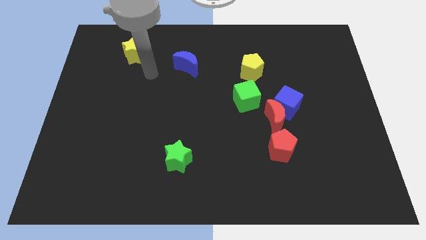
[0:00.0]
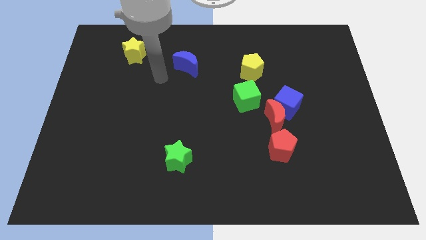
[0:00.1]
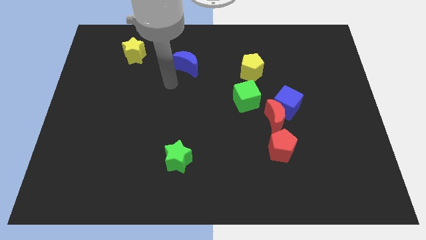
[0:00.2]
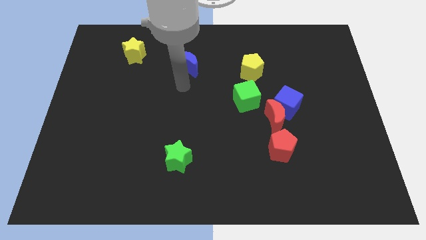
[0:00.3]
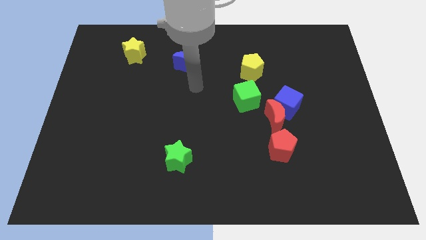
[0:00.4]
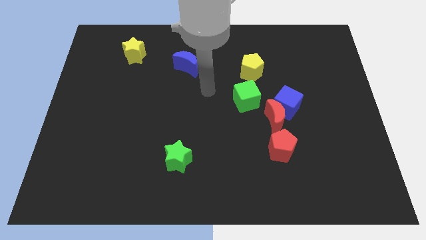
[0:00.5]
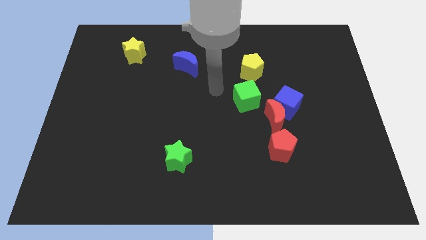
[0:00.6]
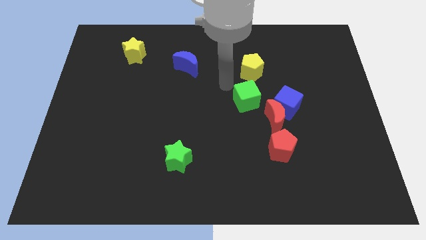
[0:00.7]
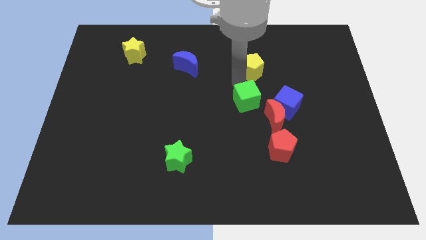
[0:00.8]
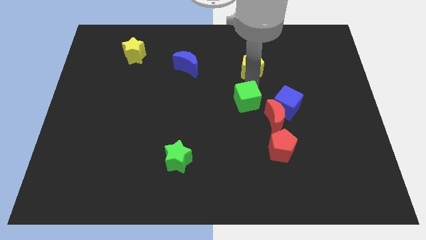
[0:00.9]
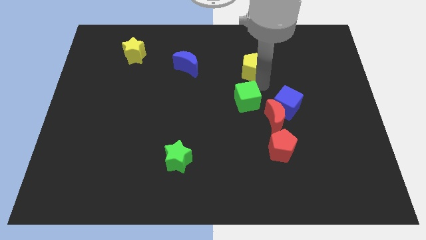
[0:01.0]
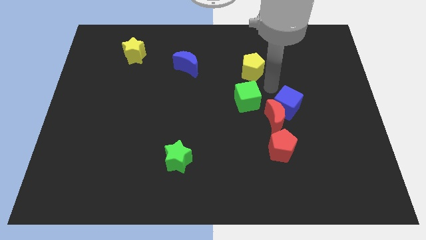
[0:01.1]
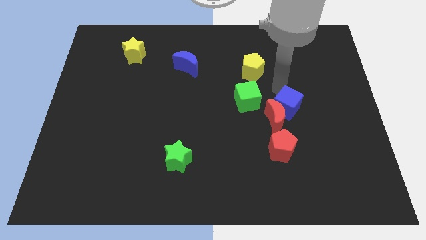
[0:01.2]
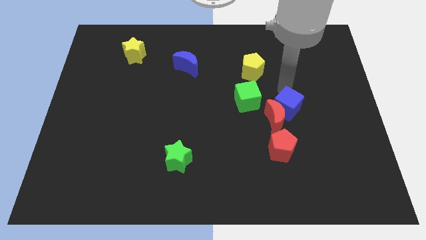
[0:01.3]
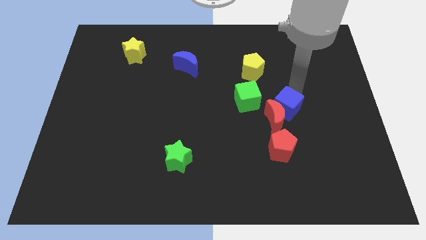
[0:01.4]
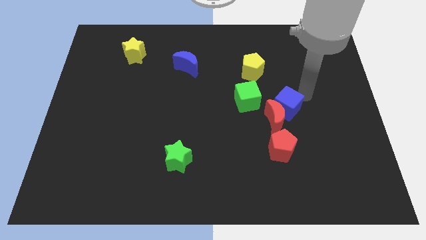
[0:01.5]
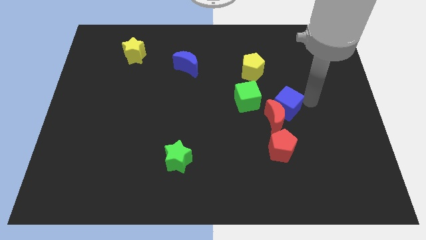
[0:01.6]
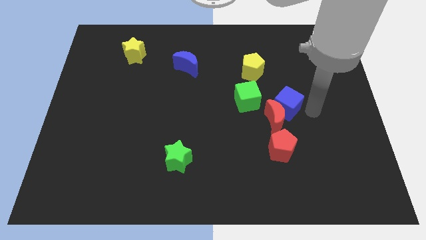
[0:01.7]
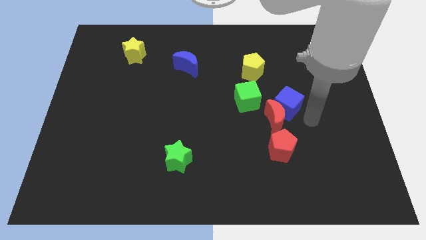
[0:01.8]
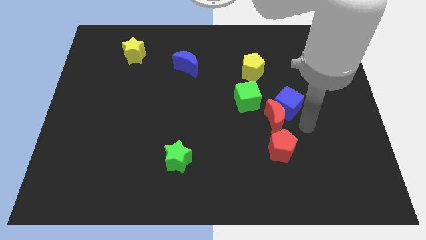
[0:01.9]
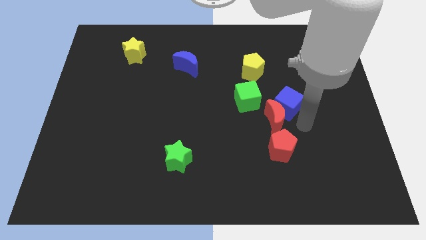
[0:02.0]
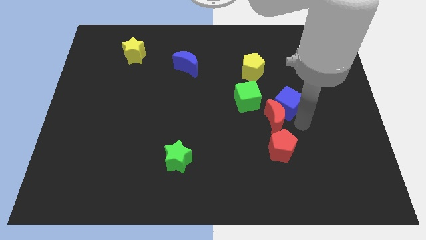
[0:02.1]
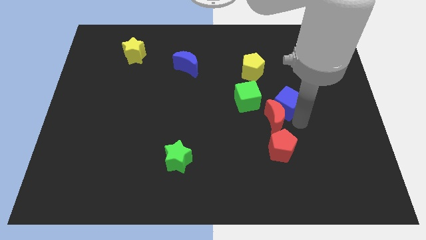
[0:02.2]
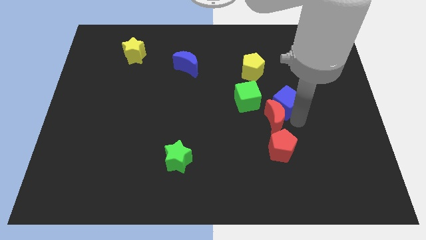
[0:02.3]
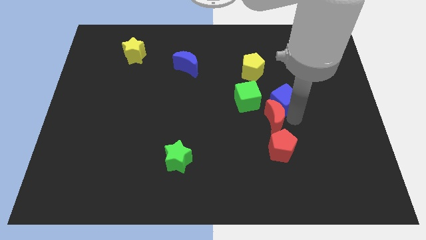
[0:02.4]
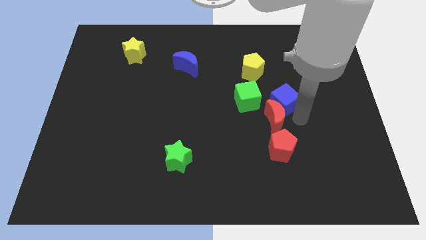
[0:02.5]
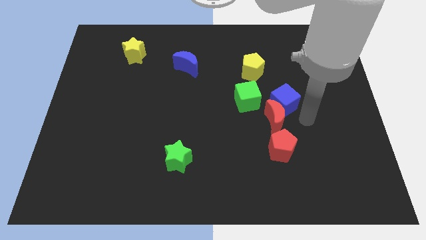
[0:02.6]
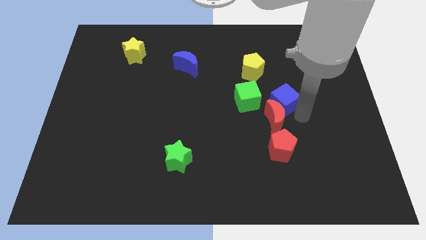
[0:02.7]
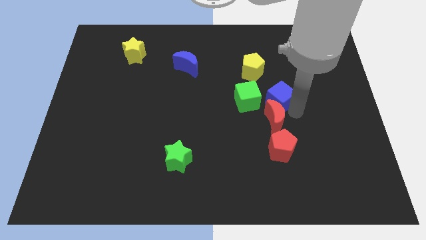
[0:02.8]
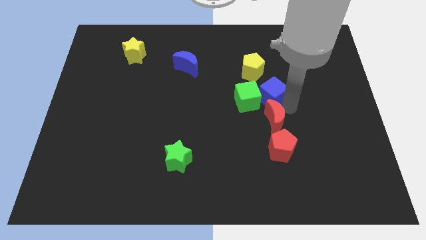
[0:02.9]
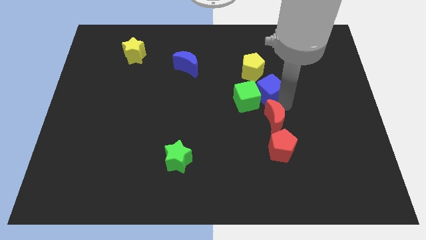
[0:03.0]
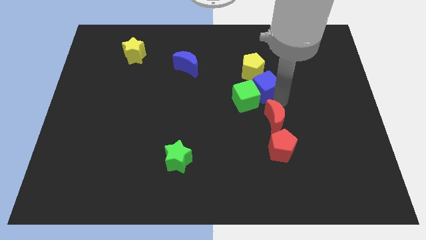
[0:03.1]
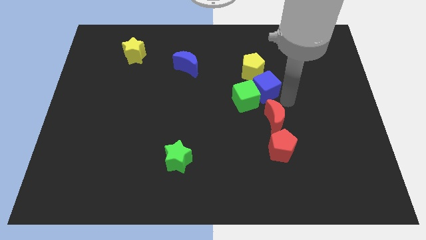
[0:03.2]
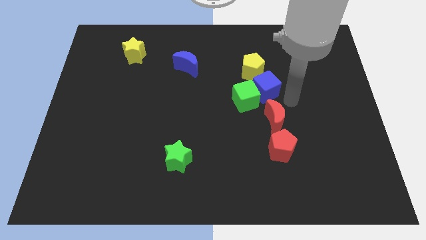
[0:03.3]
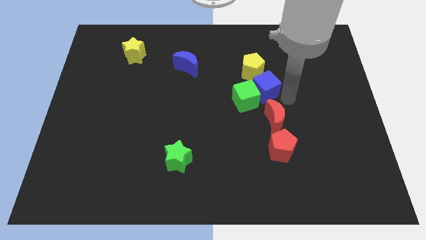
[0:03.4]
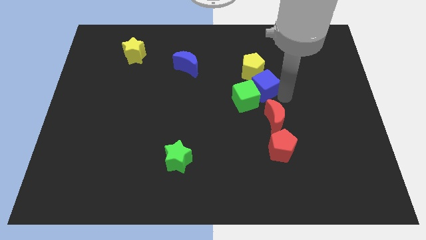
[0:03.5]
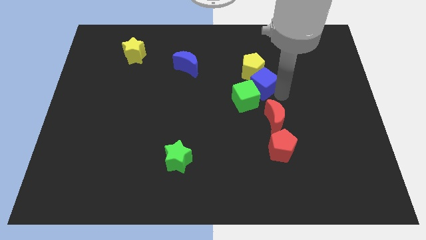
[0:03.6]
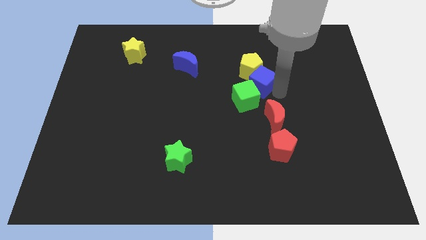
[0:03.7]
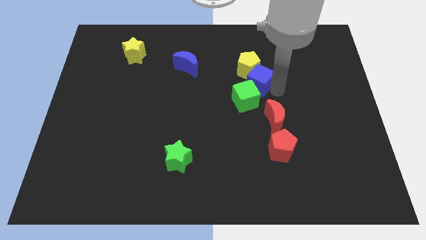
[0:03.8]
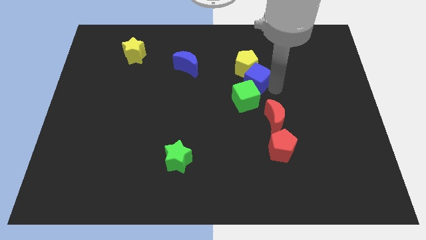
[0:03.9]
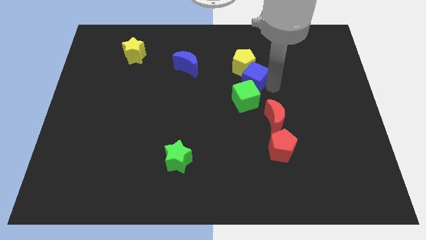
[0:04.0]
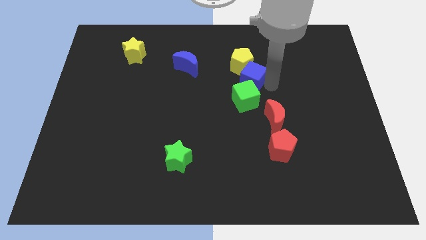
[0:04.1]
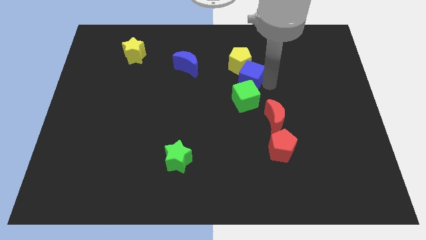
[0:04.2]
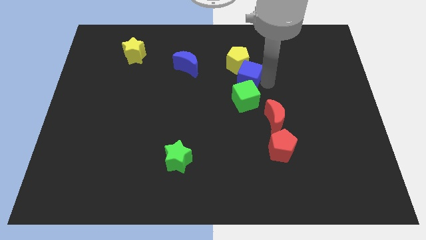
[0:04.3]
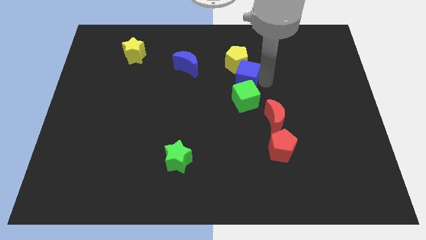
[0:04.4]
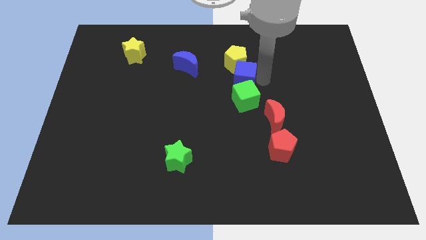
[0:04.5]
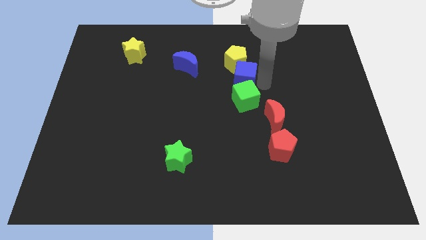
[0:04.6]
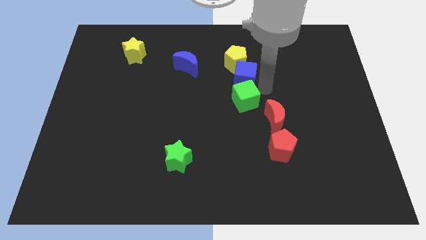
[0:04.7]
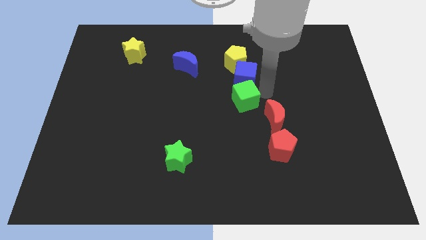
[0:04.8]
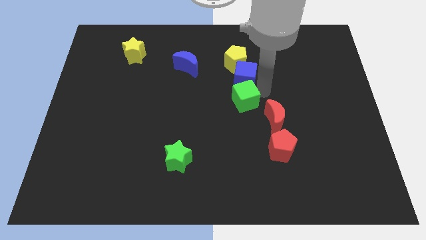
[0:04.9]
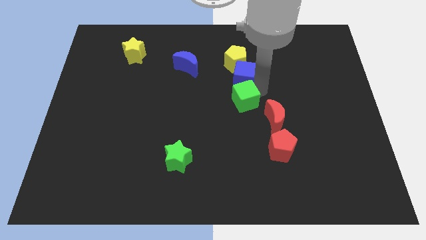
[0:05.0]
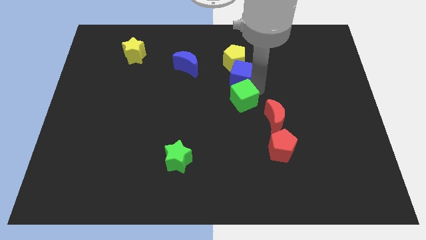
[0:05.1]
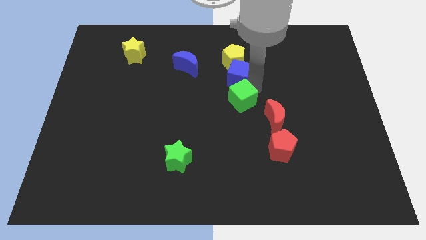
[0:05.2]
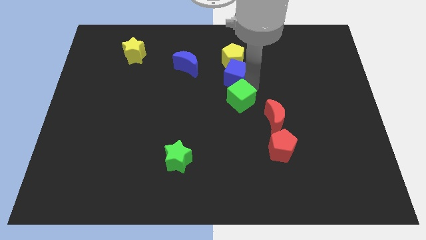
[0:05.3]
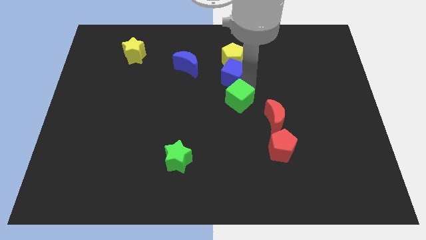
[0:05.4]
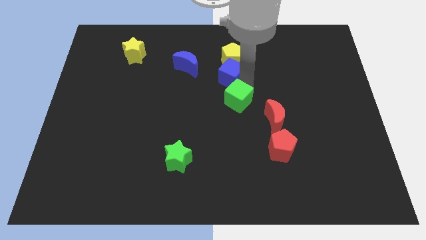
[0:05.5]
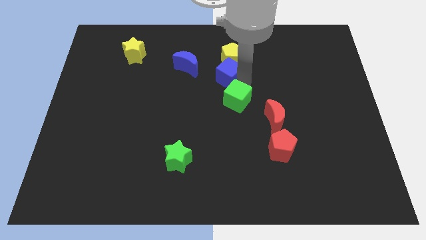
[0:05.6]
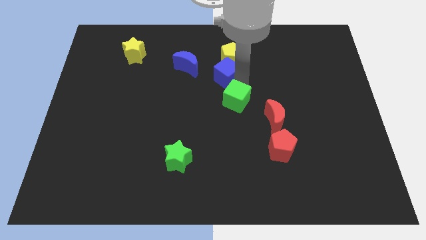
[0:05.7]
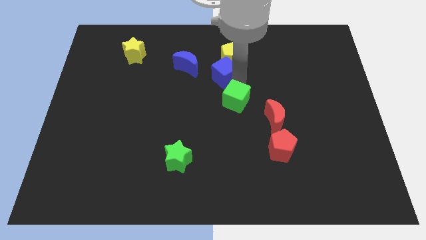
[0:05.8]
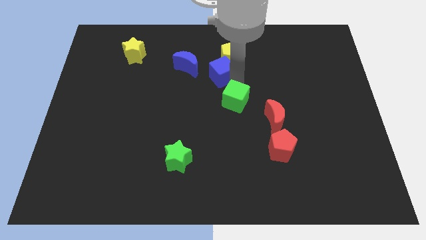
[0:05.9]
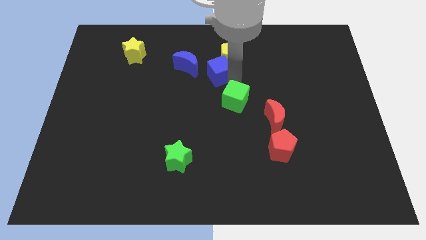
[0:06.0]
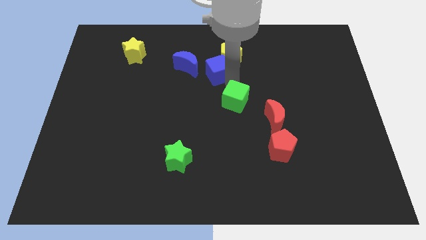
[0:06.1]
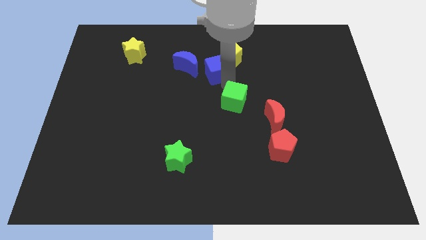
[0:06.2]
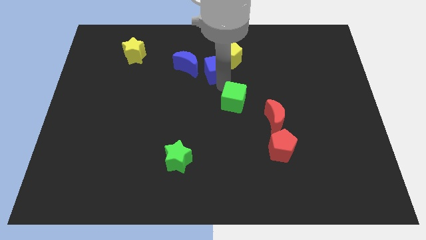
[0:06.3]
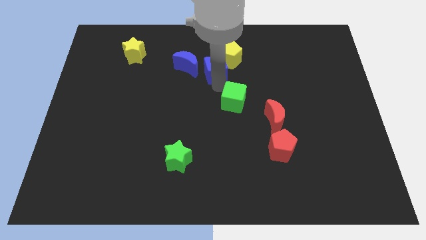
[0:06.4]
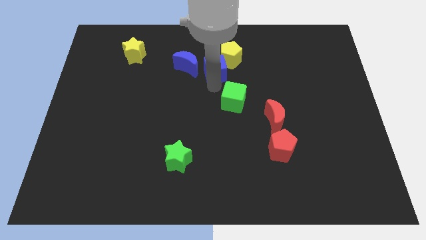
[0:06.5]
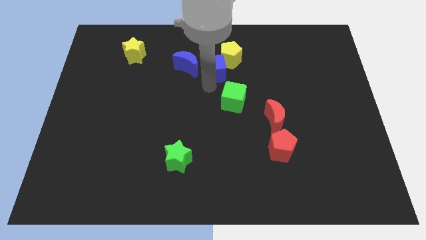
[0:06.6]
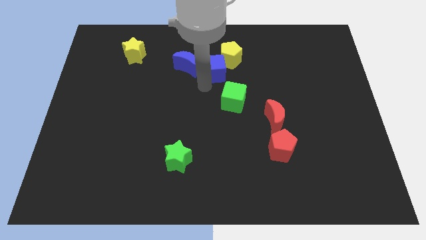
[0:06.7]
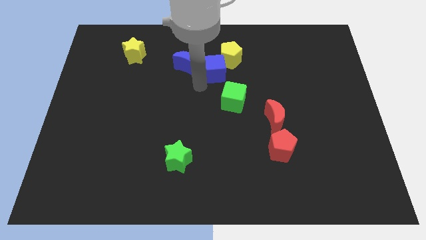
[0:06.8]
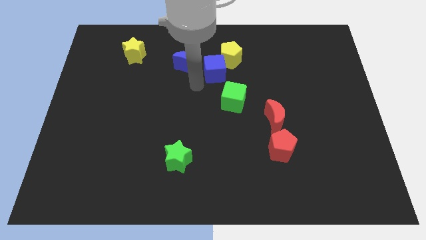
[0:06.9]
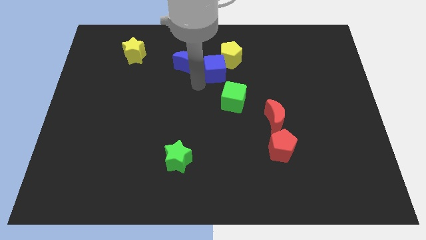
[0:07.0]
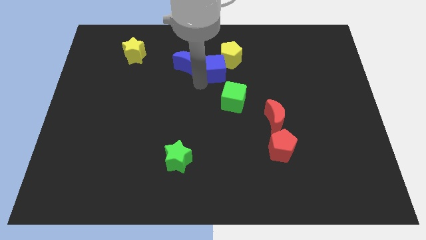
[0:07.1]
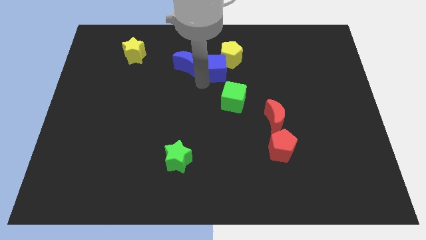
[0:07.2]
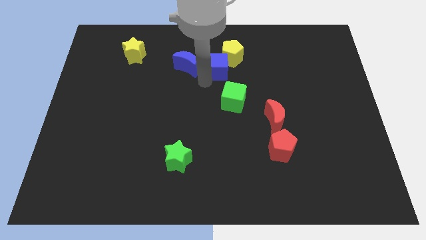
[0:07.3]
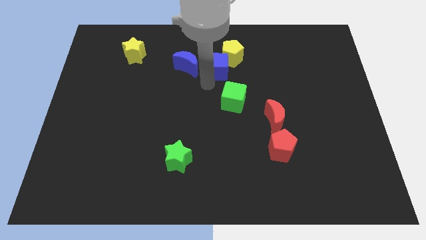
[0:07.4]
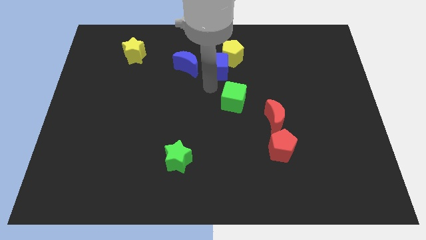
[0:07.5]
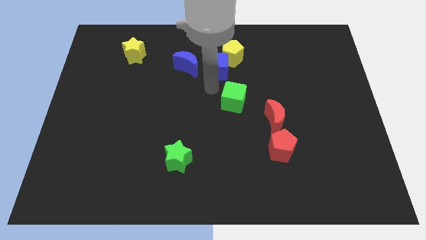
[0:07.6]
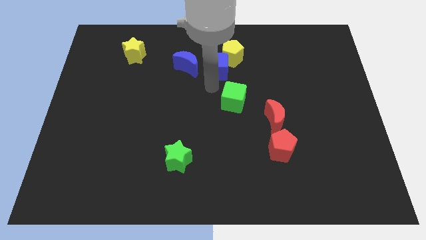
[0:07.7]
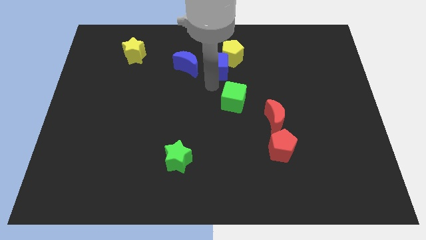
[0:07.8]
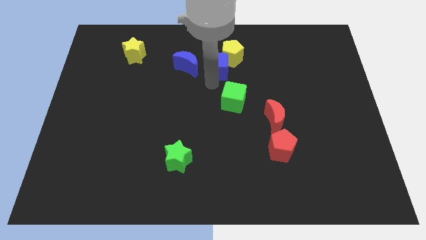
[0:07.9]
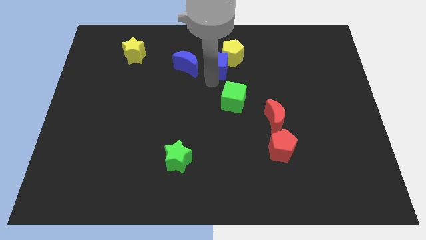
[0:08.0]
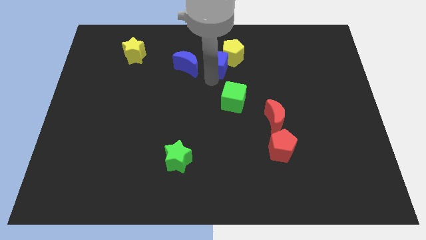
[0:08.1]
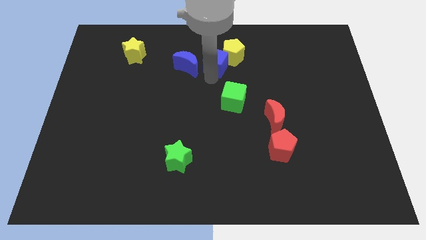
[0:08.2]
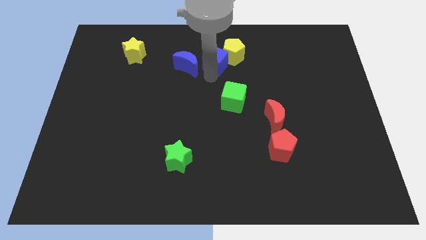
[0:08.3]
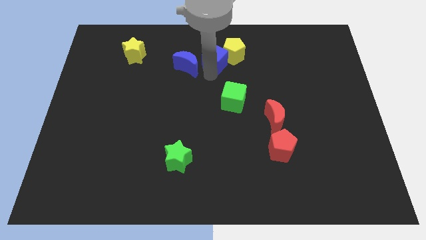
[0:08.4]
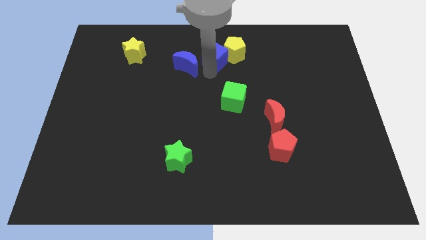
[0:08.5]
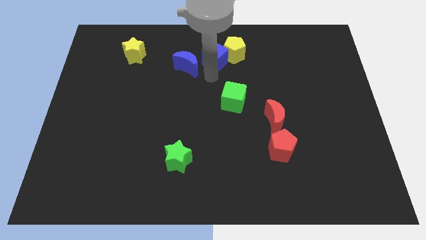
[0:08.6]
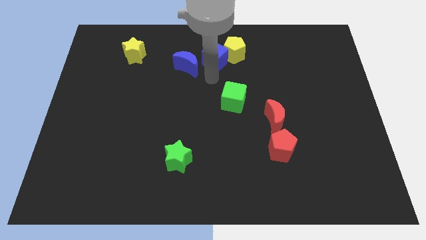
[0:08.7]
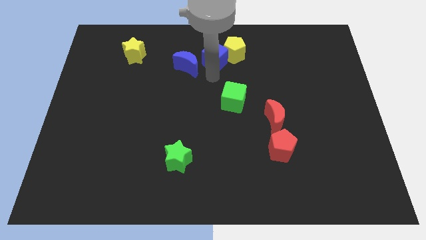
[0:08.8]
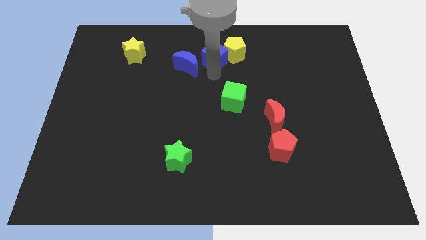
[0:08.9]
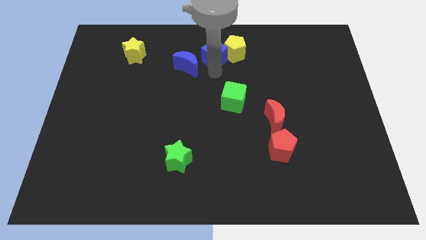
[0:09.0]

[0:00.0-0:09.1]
slide the blue cube to the top
